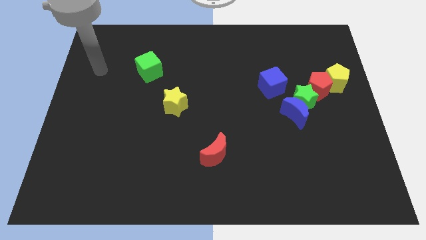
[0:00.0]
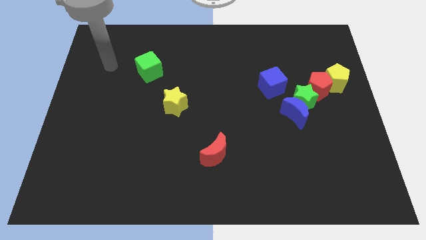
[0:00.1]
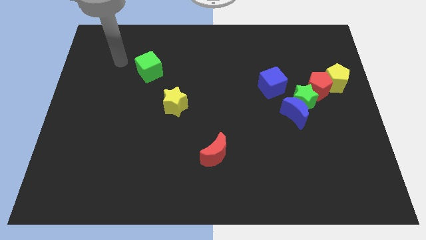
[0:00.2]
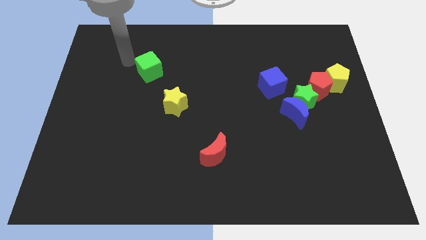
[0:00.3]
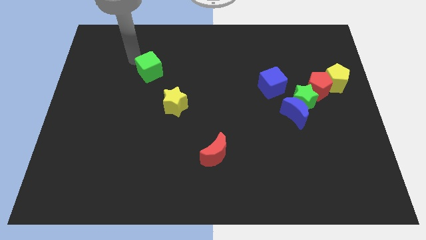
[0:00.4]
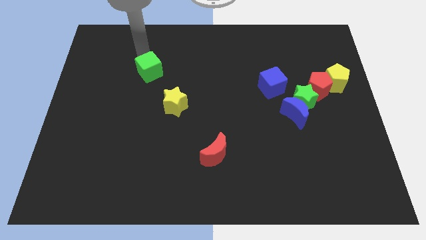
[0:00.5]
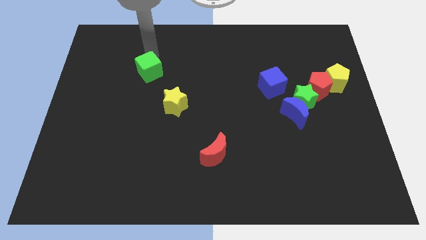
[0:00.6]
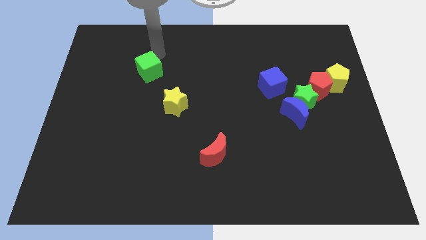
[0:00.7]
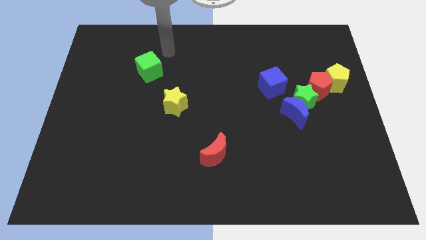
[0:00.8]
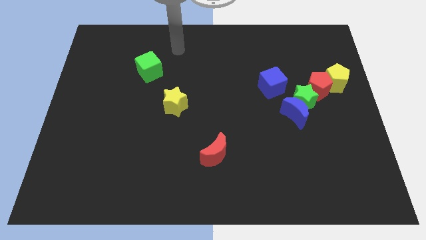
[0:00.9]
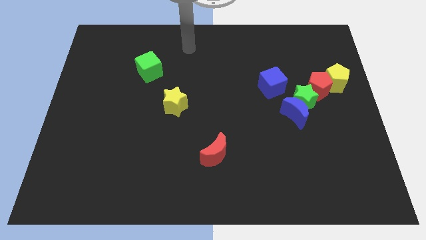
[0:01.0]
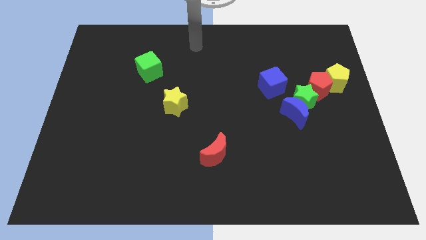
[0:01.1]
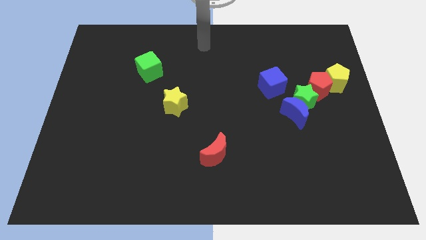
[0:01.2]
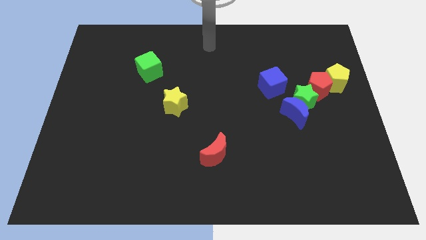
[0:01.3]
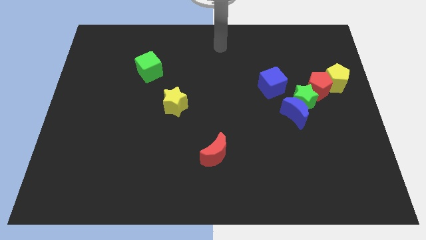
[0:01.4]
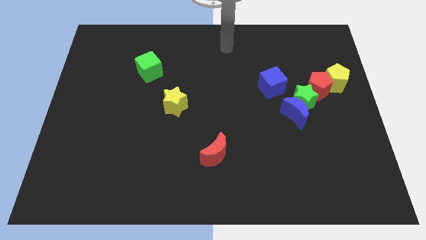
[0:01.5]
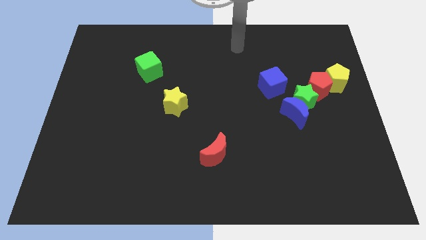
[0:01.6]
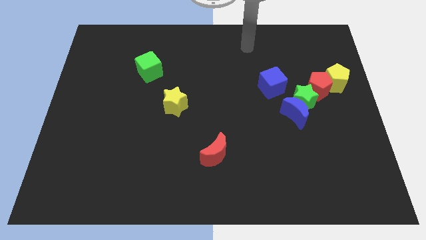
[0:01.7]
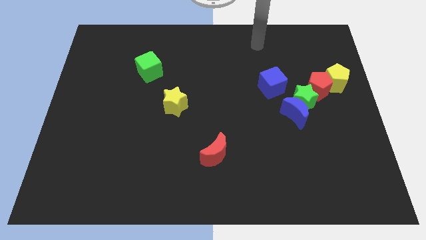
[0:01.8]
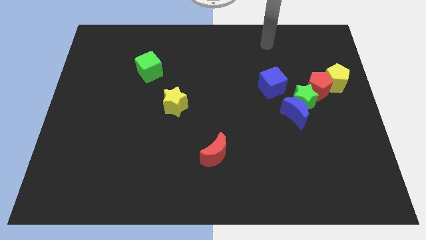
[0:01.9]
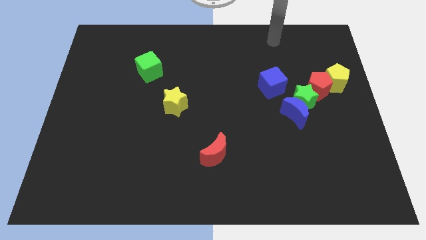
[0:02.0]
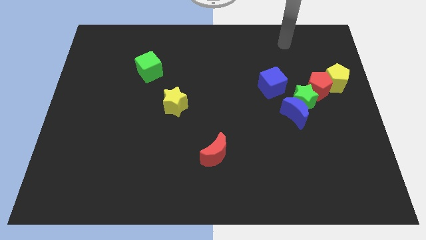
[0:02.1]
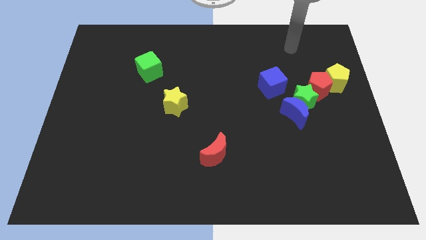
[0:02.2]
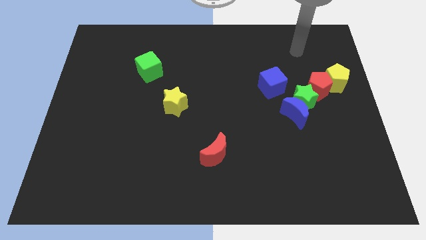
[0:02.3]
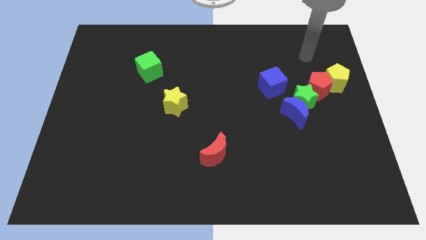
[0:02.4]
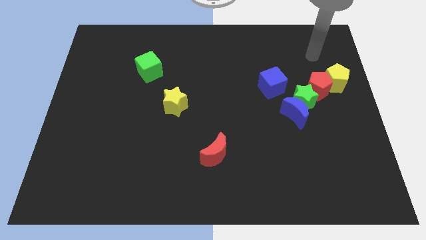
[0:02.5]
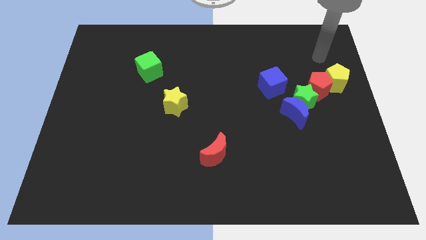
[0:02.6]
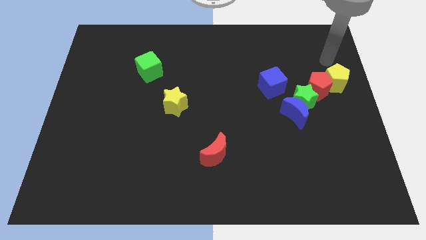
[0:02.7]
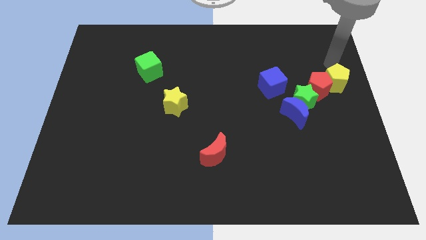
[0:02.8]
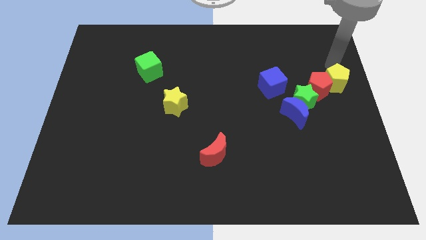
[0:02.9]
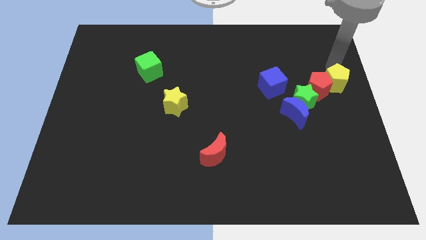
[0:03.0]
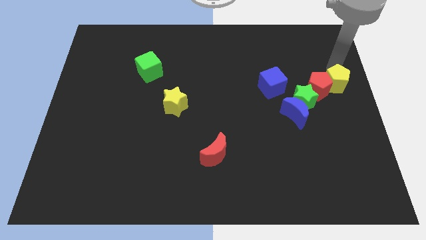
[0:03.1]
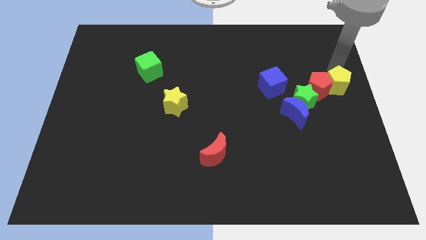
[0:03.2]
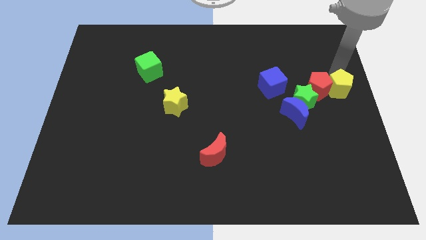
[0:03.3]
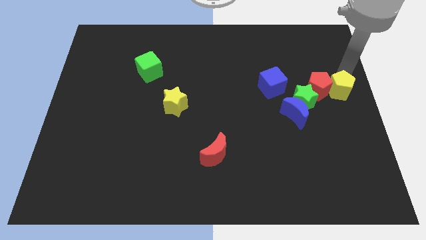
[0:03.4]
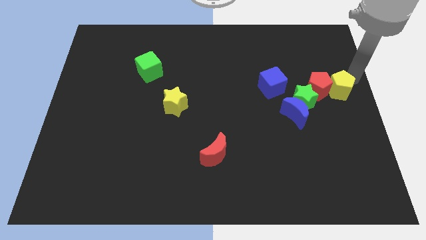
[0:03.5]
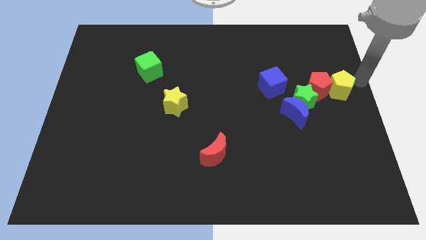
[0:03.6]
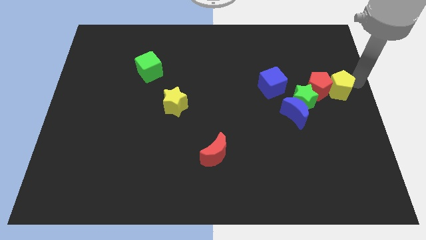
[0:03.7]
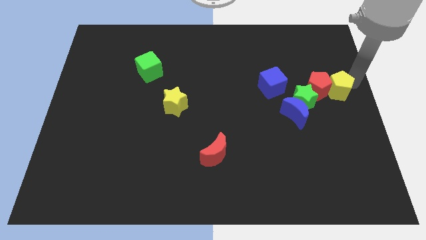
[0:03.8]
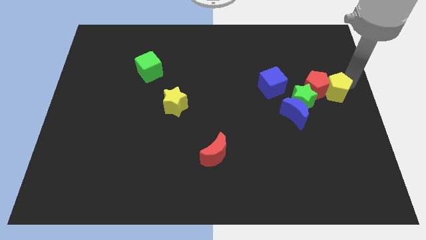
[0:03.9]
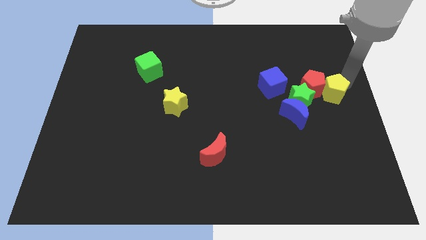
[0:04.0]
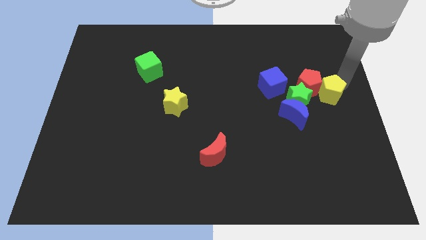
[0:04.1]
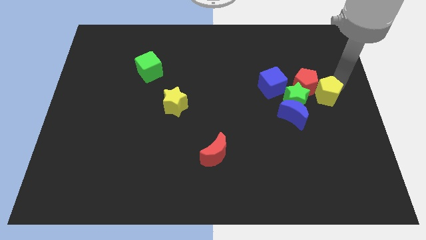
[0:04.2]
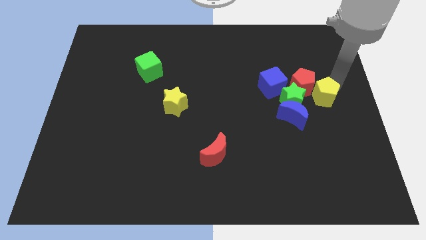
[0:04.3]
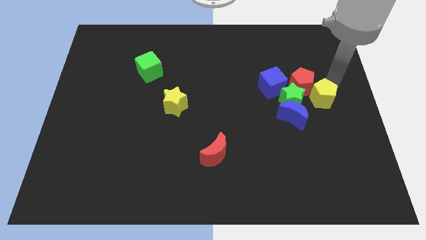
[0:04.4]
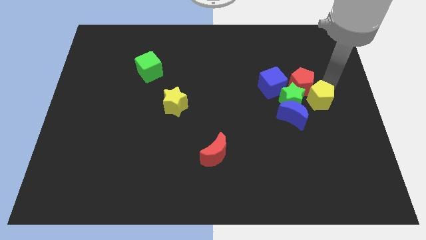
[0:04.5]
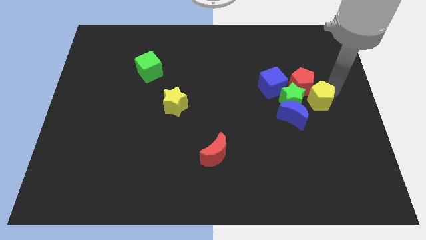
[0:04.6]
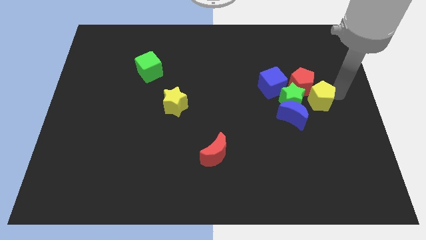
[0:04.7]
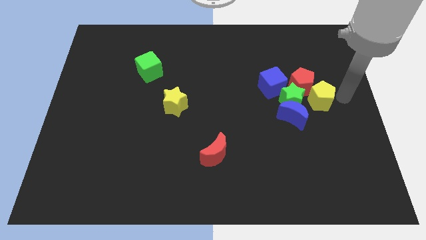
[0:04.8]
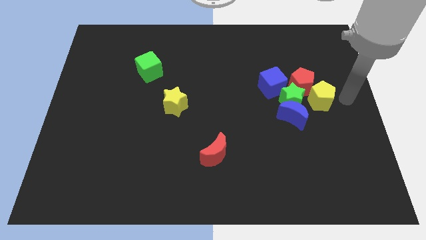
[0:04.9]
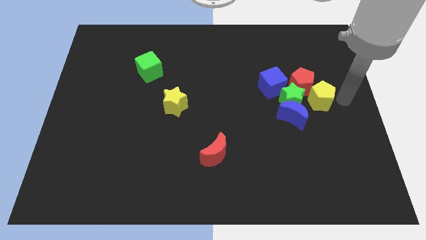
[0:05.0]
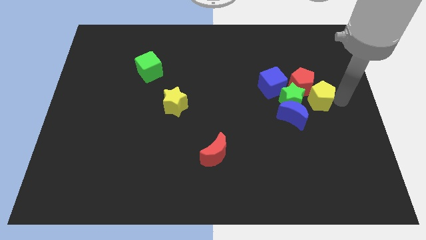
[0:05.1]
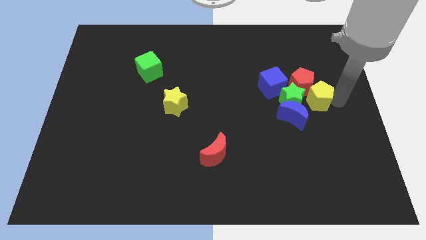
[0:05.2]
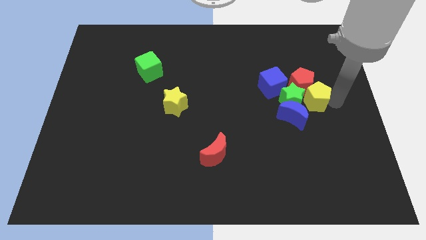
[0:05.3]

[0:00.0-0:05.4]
slide the yellow pentagon to the green star

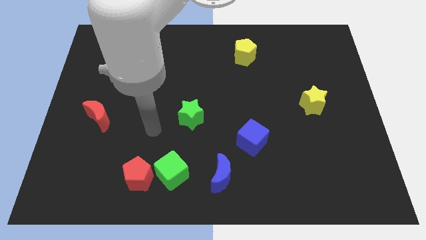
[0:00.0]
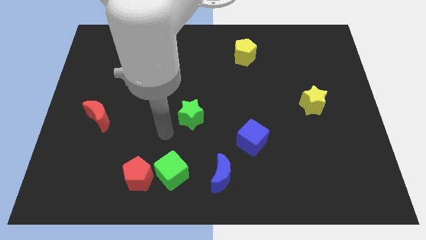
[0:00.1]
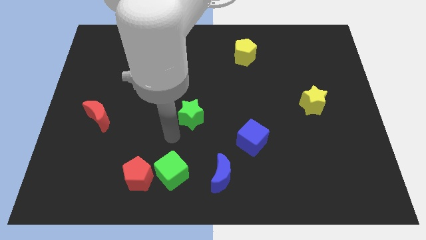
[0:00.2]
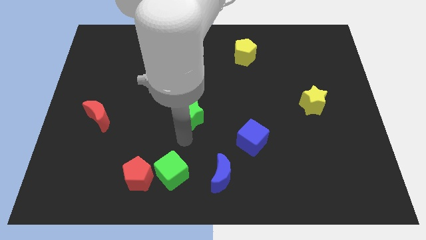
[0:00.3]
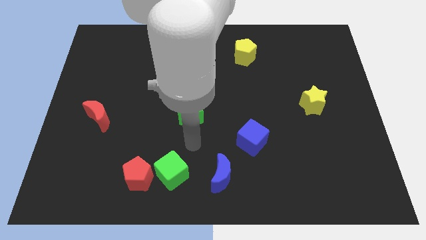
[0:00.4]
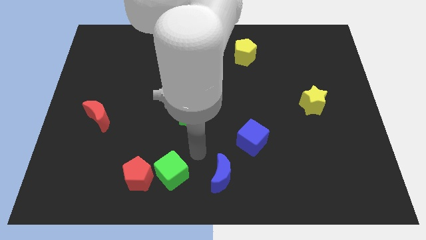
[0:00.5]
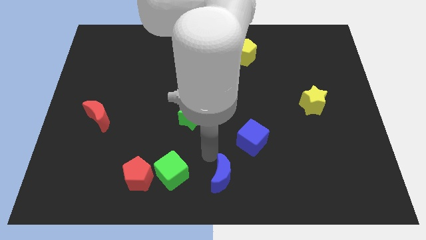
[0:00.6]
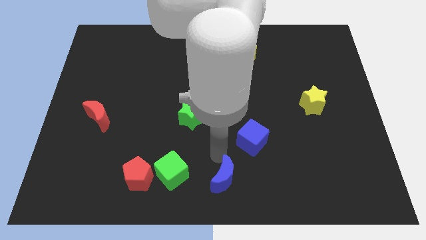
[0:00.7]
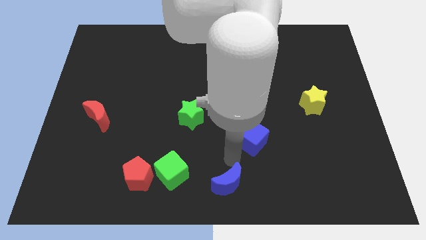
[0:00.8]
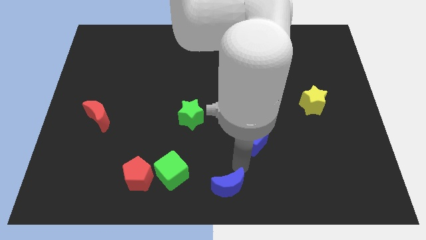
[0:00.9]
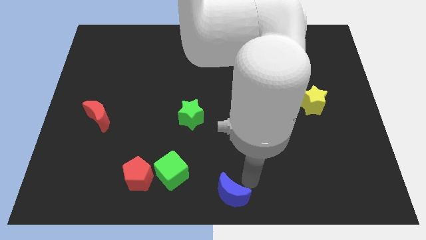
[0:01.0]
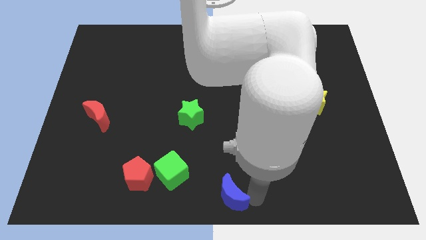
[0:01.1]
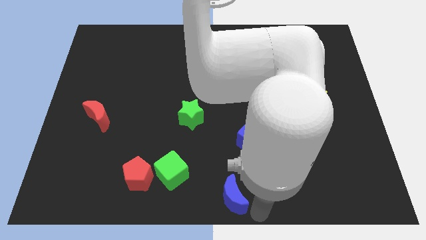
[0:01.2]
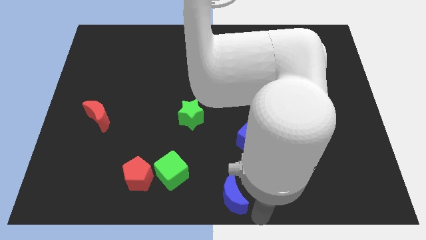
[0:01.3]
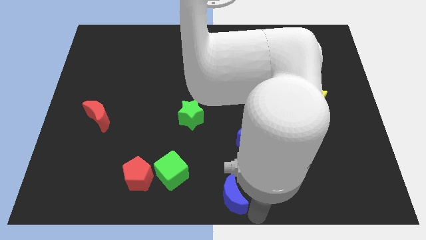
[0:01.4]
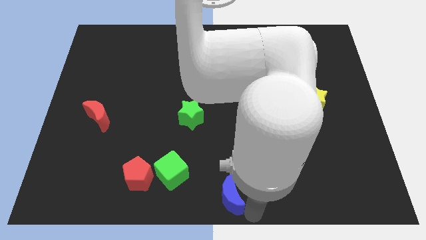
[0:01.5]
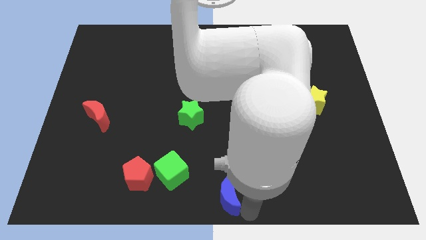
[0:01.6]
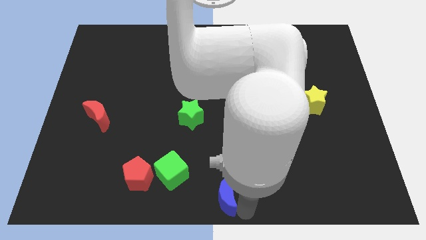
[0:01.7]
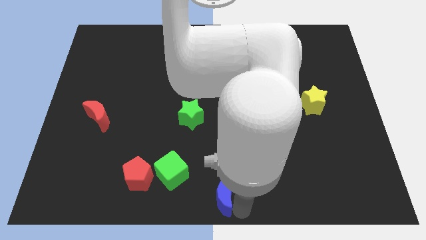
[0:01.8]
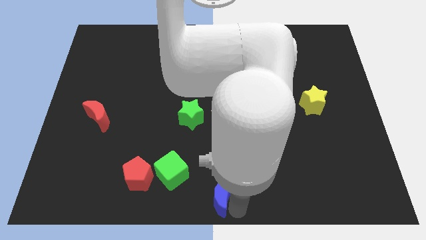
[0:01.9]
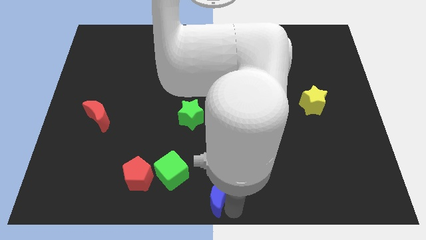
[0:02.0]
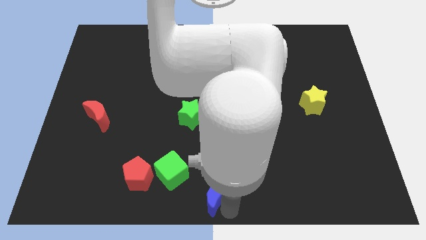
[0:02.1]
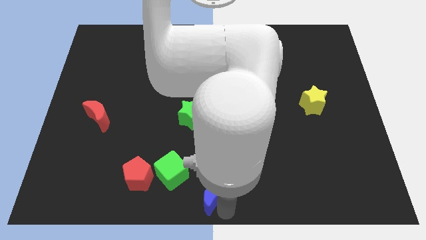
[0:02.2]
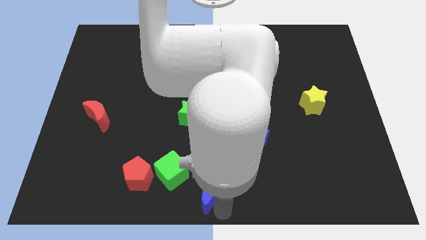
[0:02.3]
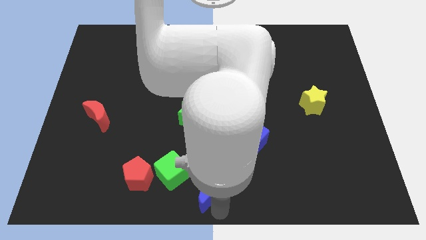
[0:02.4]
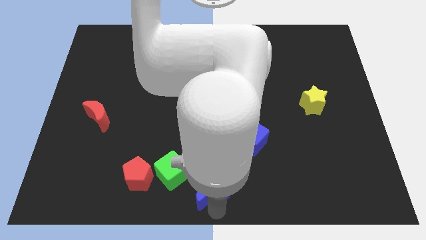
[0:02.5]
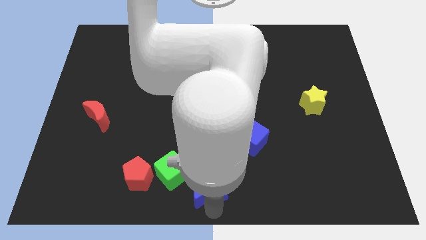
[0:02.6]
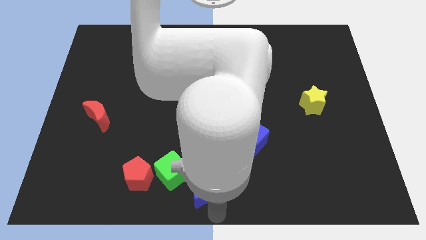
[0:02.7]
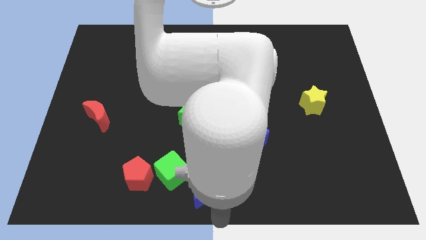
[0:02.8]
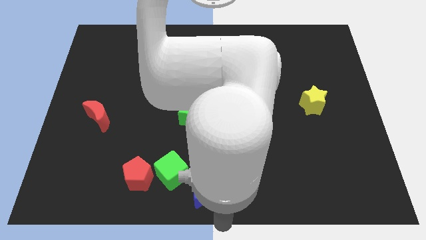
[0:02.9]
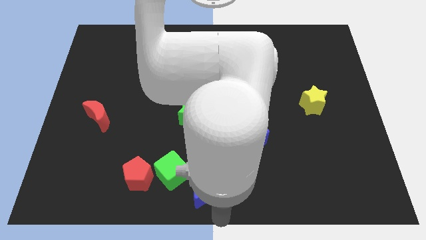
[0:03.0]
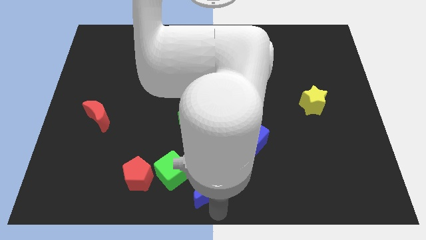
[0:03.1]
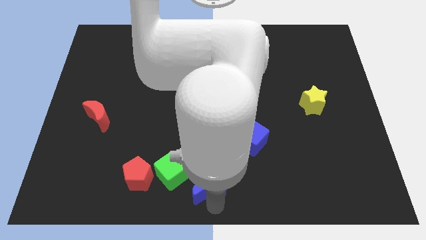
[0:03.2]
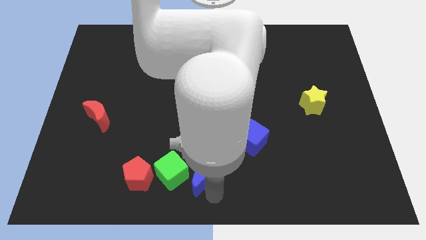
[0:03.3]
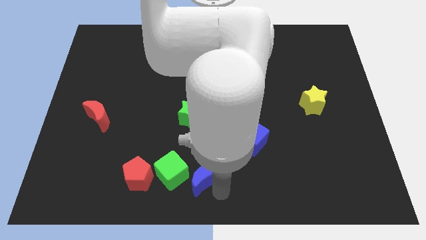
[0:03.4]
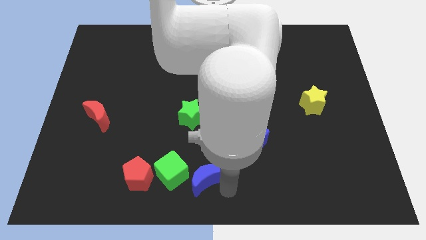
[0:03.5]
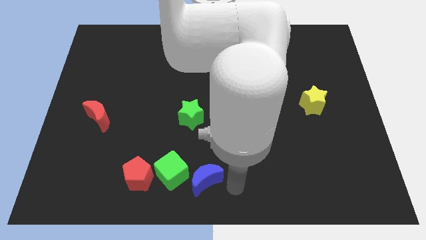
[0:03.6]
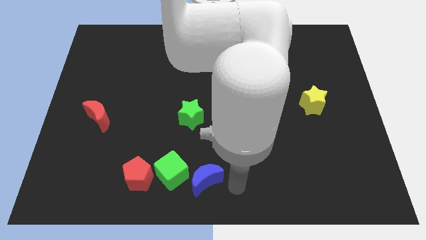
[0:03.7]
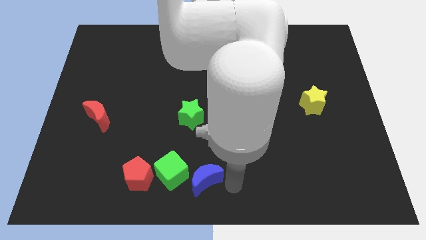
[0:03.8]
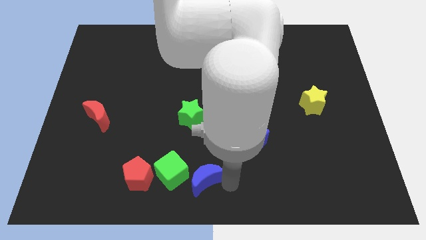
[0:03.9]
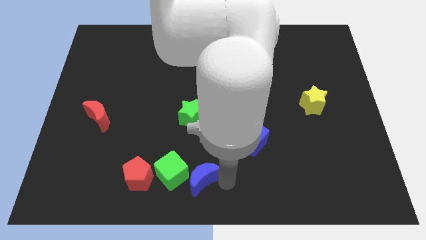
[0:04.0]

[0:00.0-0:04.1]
put the blue moon next to the green cube
